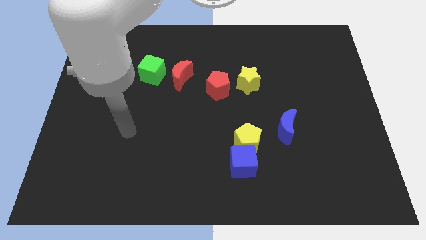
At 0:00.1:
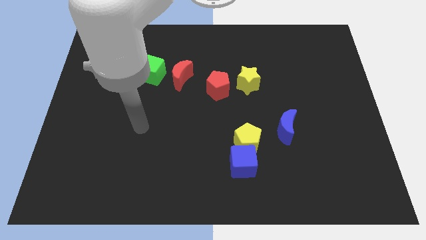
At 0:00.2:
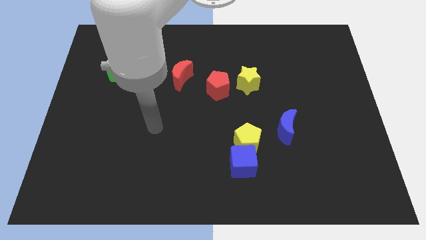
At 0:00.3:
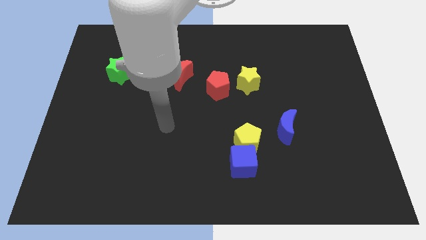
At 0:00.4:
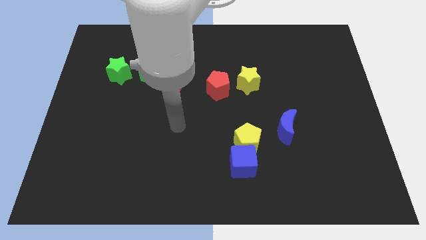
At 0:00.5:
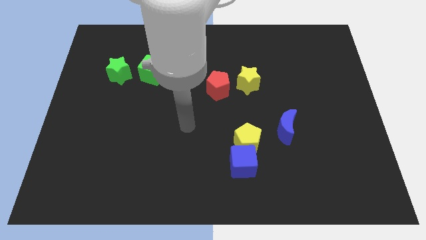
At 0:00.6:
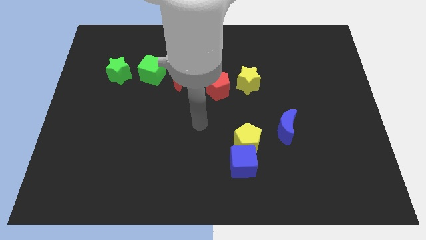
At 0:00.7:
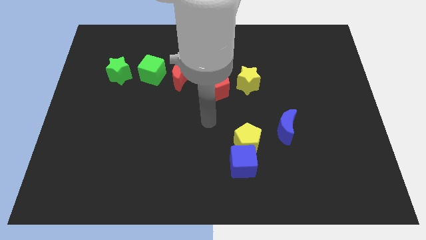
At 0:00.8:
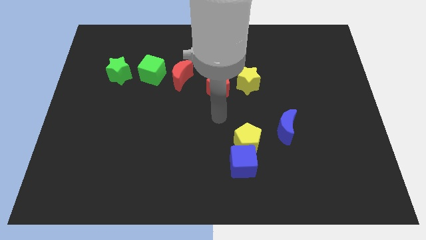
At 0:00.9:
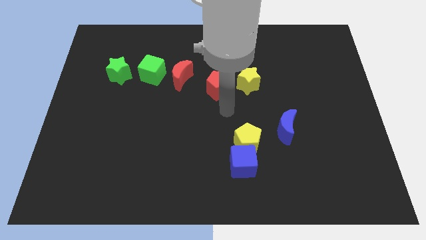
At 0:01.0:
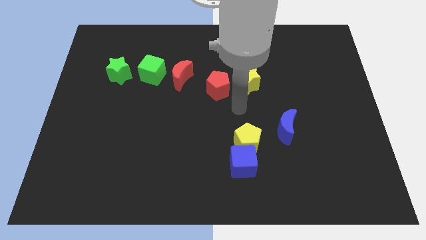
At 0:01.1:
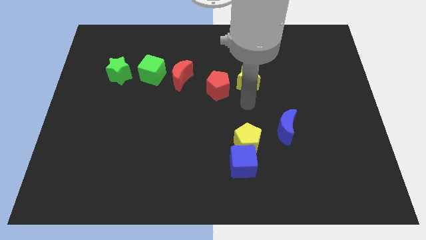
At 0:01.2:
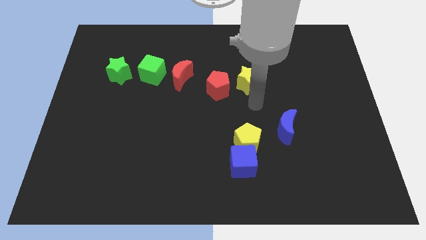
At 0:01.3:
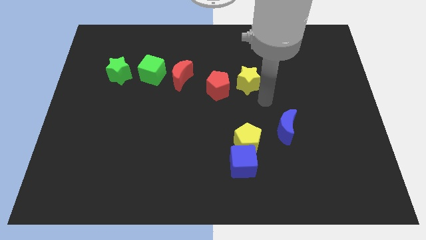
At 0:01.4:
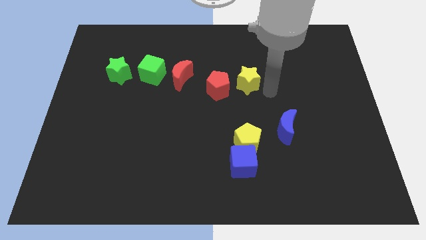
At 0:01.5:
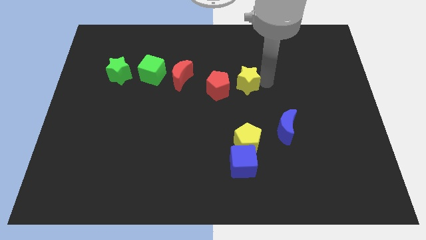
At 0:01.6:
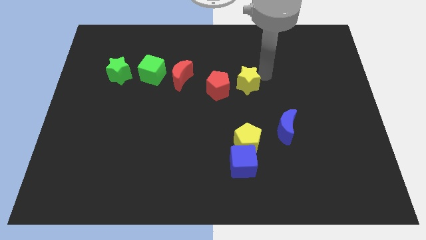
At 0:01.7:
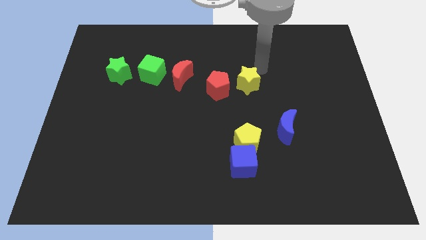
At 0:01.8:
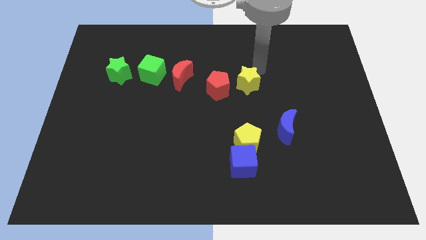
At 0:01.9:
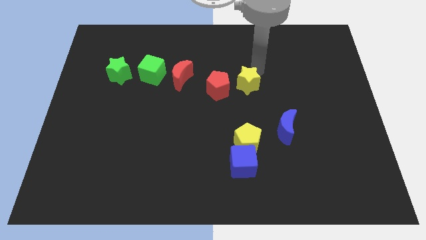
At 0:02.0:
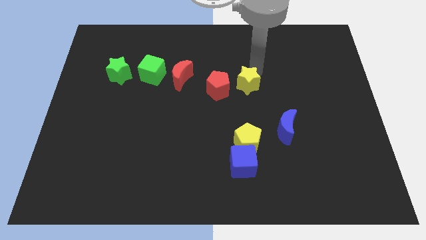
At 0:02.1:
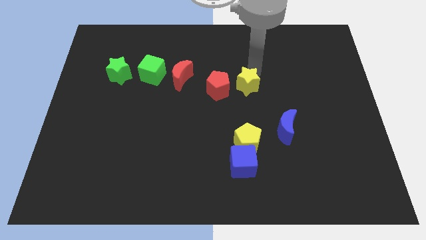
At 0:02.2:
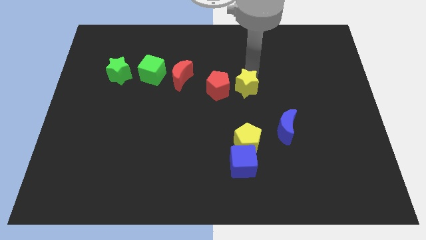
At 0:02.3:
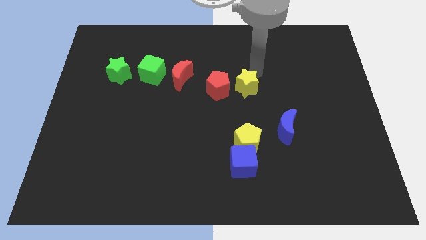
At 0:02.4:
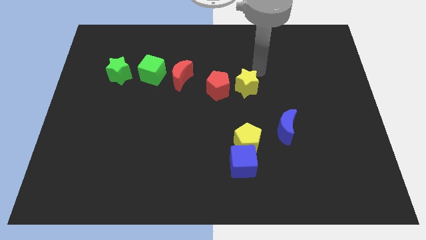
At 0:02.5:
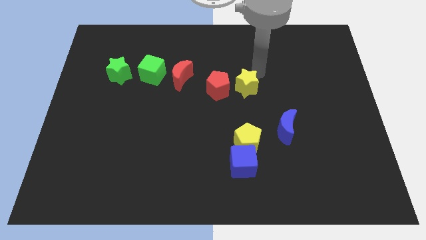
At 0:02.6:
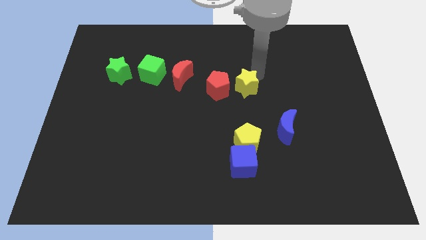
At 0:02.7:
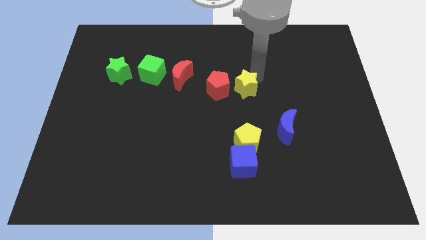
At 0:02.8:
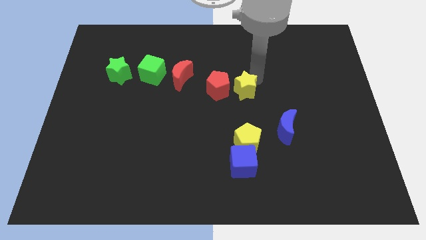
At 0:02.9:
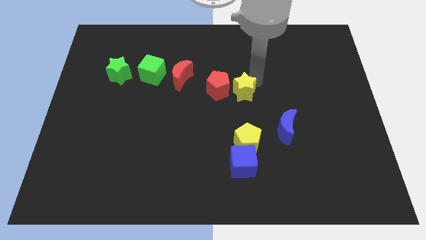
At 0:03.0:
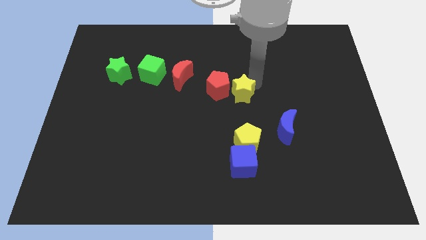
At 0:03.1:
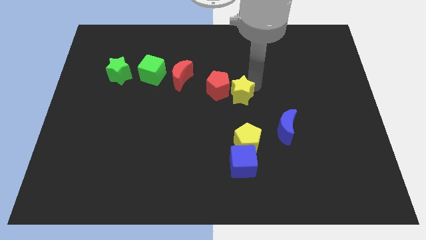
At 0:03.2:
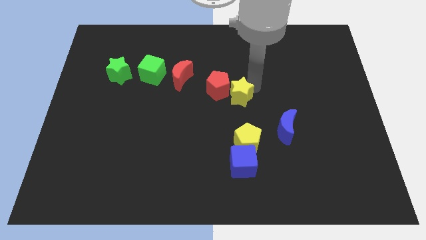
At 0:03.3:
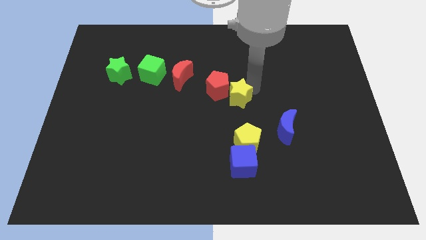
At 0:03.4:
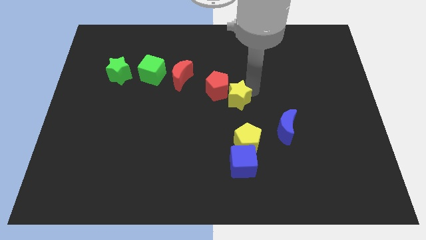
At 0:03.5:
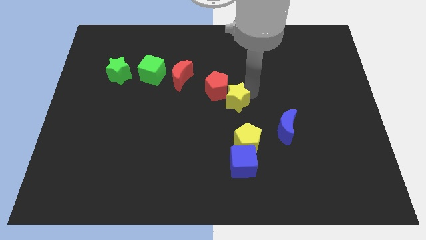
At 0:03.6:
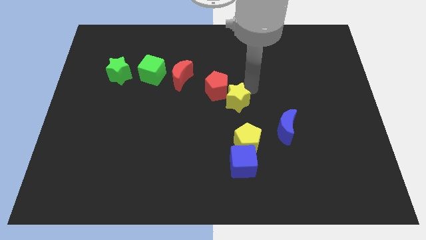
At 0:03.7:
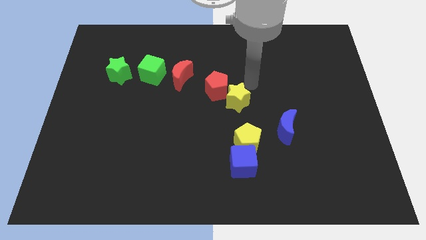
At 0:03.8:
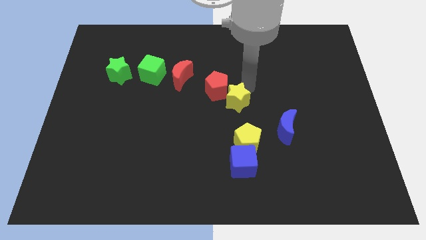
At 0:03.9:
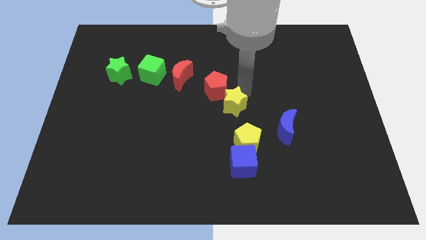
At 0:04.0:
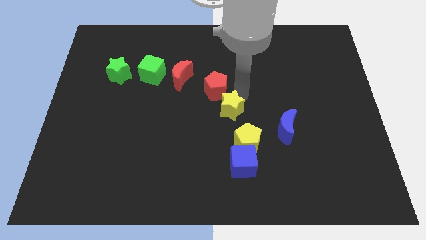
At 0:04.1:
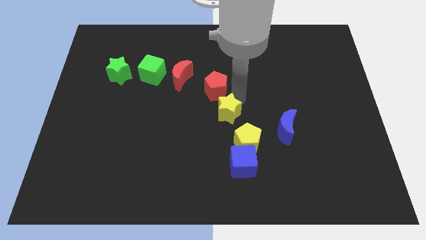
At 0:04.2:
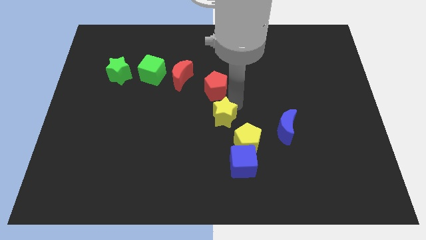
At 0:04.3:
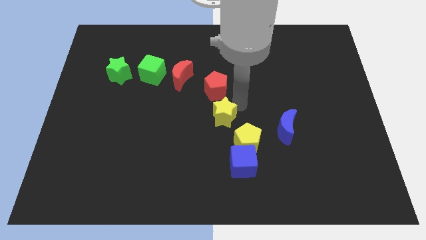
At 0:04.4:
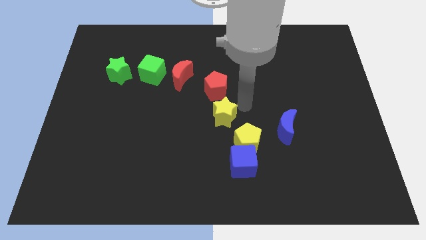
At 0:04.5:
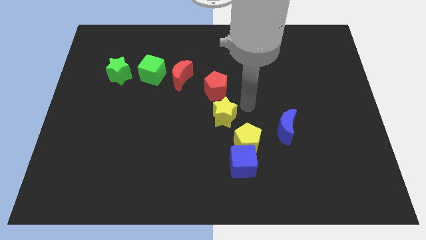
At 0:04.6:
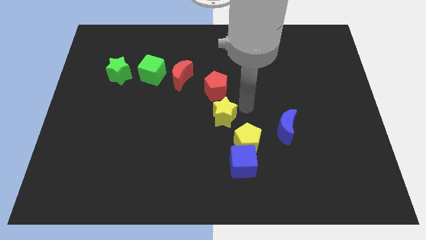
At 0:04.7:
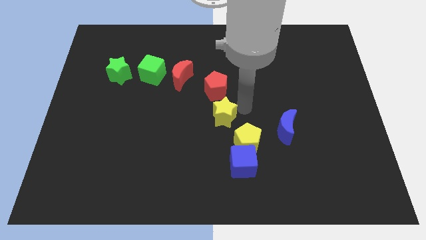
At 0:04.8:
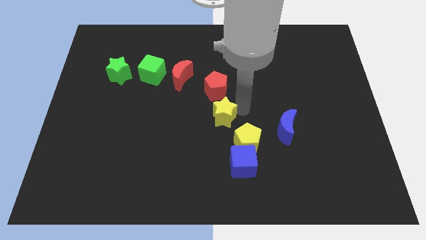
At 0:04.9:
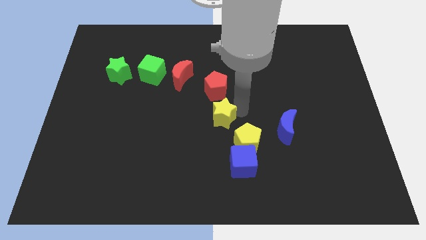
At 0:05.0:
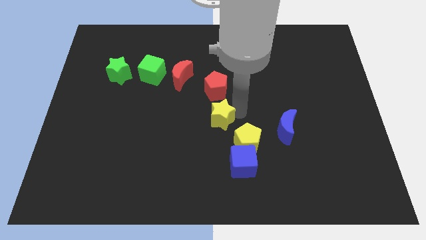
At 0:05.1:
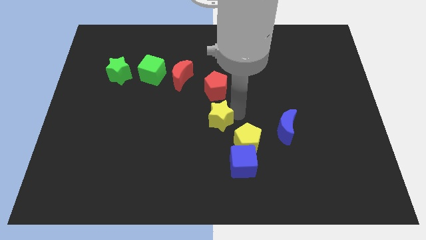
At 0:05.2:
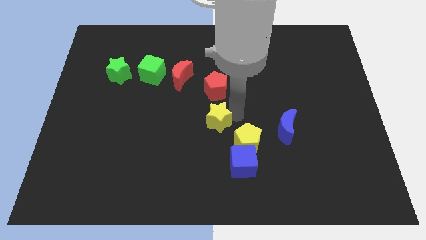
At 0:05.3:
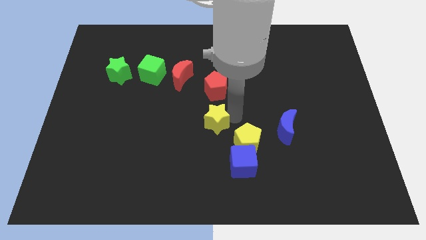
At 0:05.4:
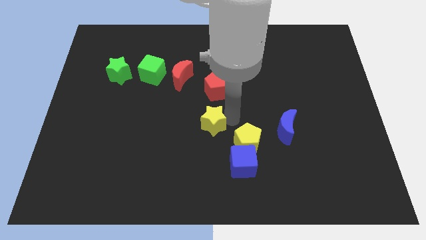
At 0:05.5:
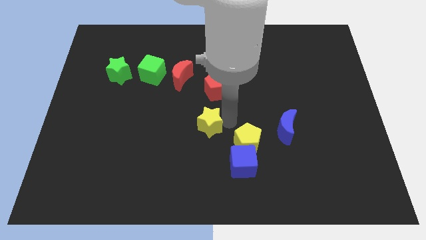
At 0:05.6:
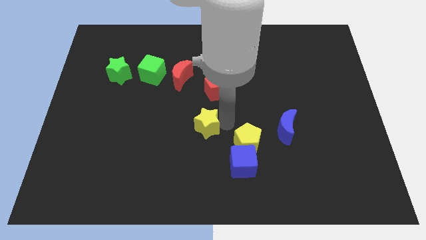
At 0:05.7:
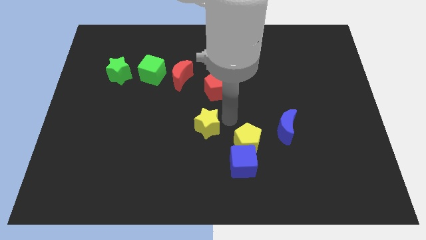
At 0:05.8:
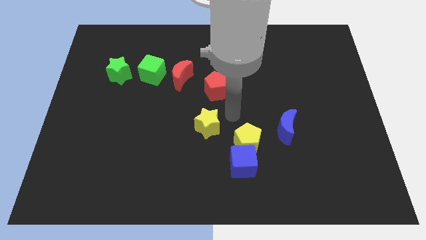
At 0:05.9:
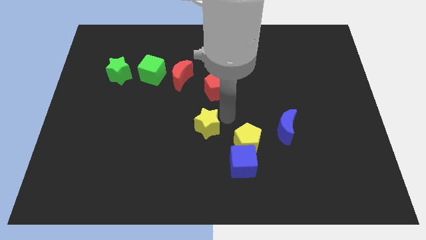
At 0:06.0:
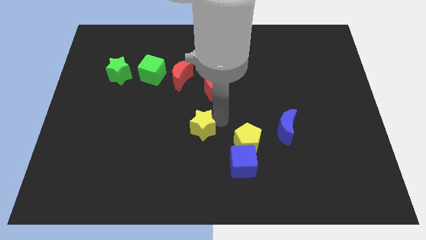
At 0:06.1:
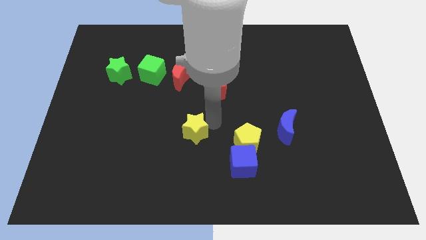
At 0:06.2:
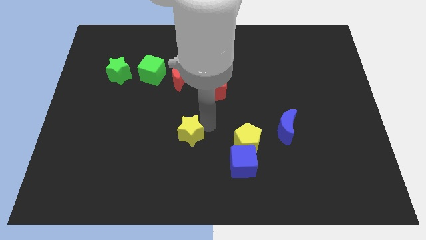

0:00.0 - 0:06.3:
push the yellow star downwards and to the left diagonally

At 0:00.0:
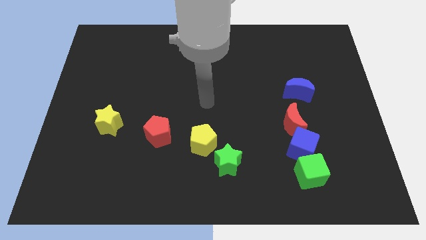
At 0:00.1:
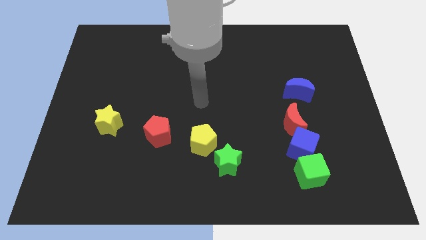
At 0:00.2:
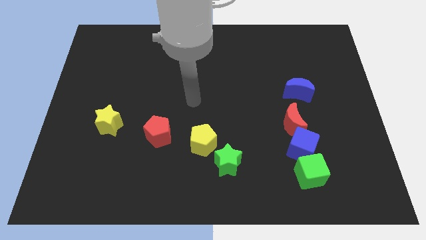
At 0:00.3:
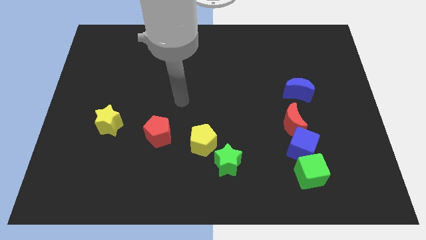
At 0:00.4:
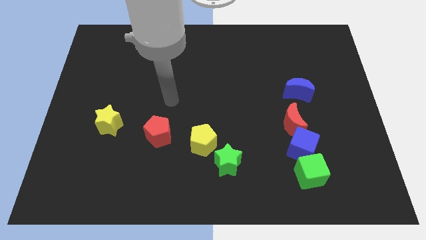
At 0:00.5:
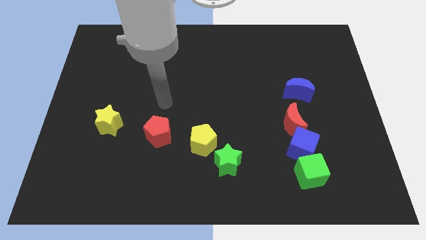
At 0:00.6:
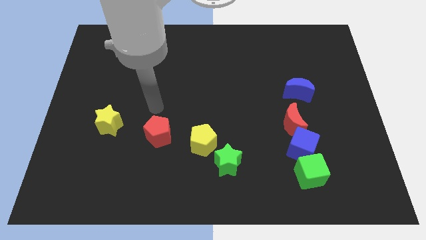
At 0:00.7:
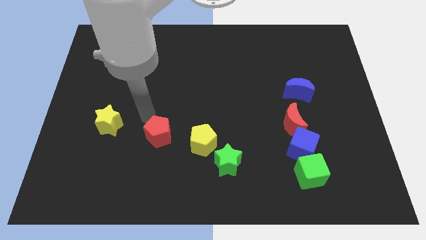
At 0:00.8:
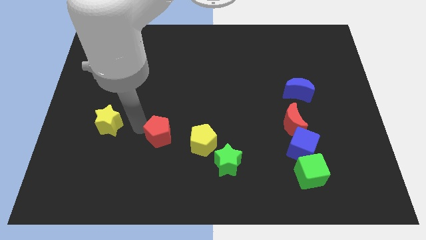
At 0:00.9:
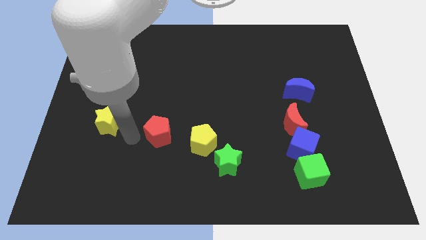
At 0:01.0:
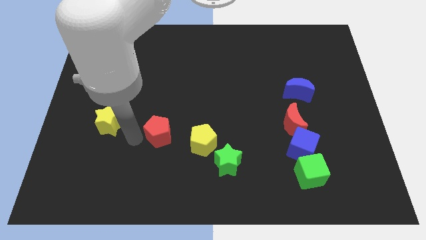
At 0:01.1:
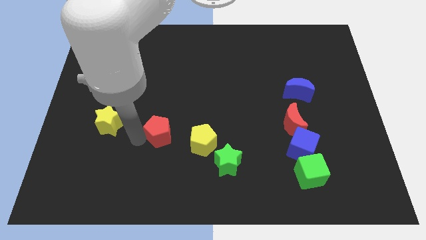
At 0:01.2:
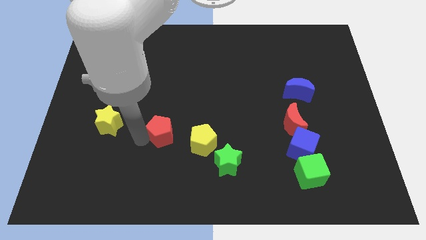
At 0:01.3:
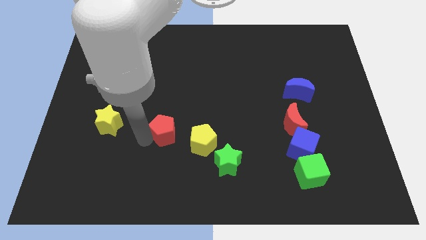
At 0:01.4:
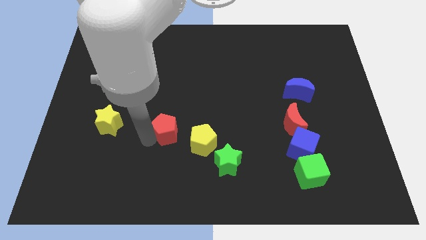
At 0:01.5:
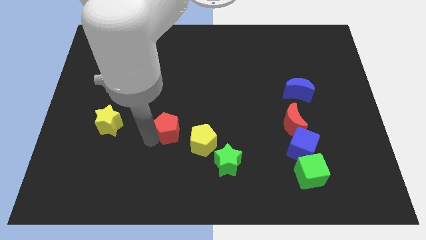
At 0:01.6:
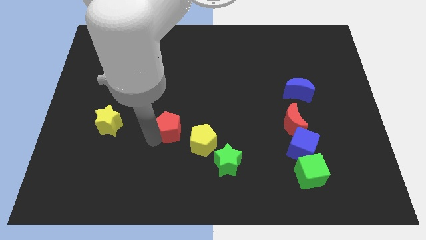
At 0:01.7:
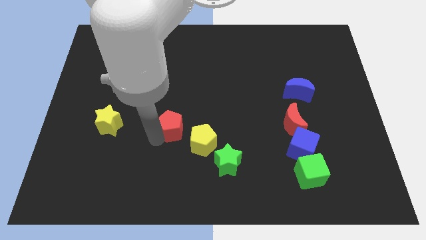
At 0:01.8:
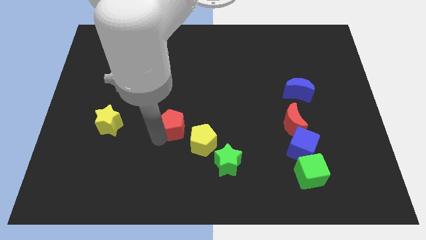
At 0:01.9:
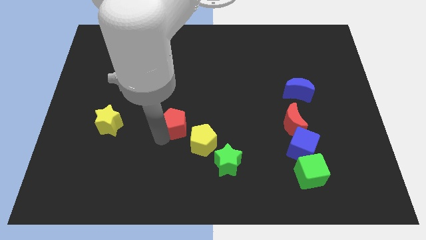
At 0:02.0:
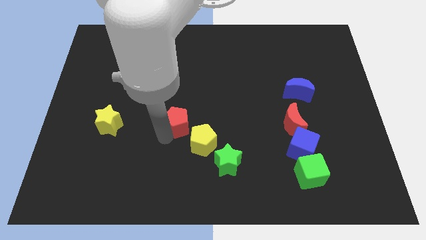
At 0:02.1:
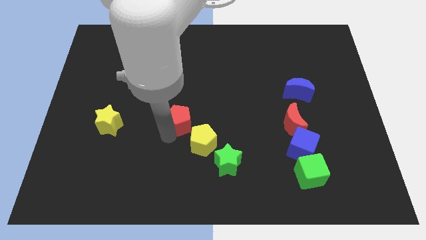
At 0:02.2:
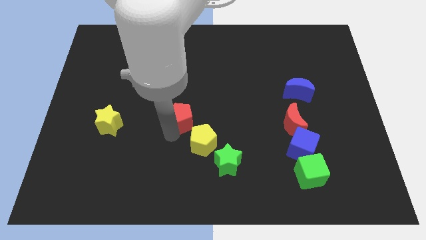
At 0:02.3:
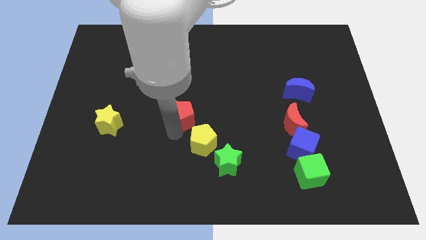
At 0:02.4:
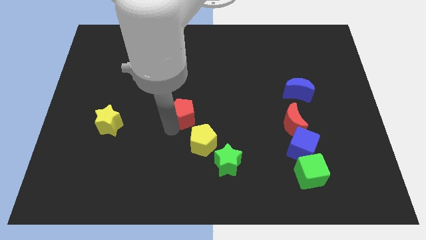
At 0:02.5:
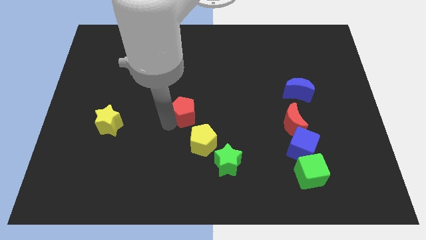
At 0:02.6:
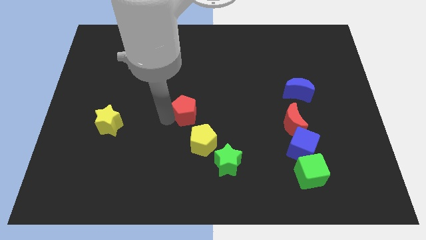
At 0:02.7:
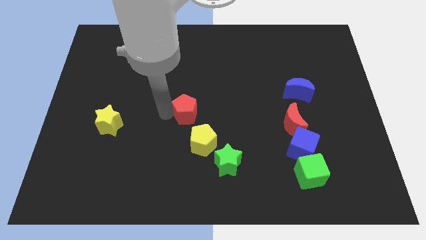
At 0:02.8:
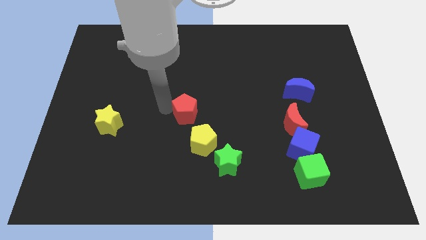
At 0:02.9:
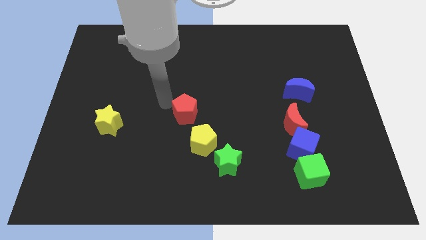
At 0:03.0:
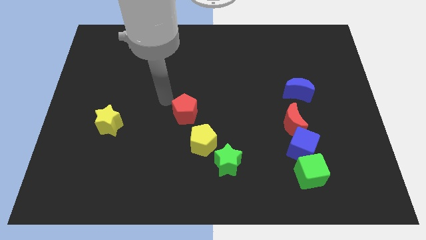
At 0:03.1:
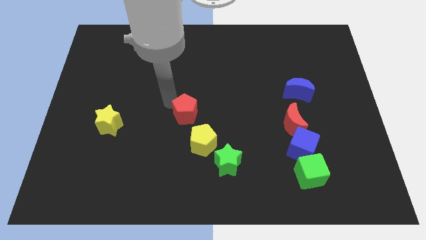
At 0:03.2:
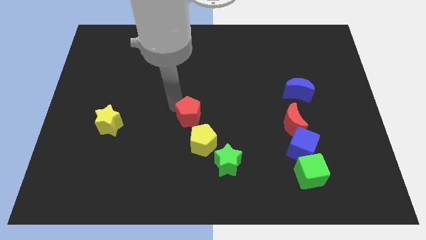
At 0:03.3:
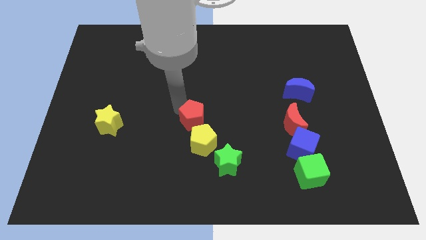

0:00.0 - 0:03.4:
push the red pentagon to the right slightly
